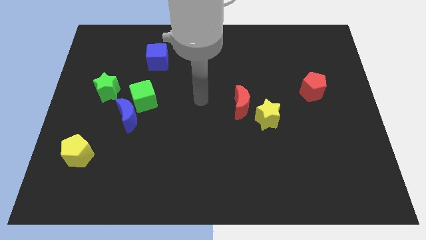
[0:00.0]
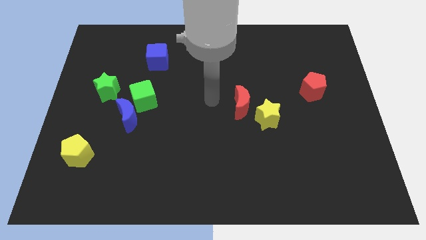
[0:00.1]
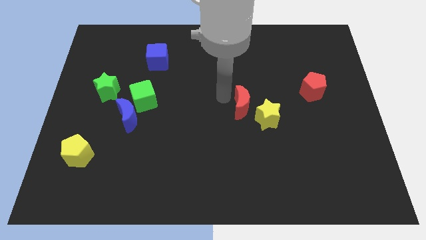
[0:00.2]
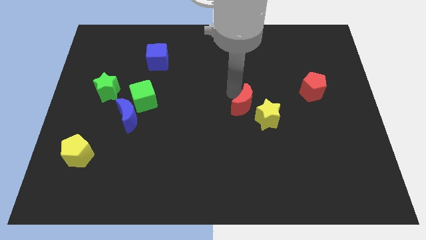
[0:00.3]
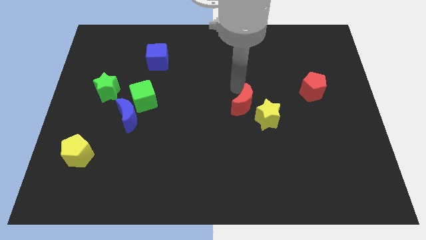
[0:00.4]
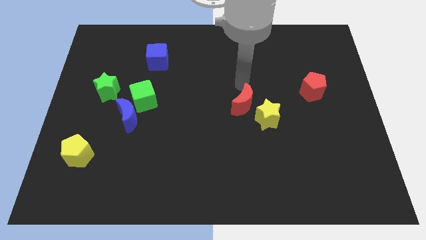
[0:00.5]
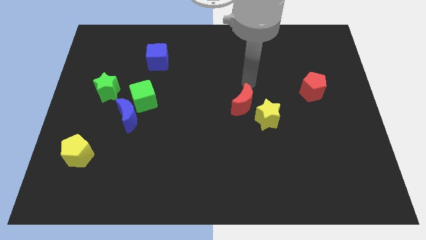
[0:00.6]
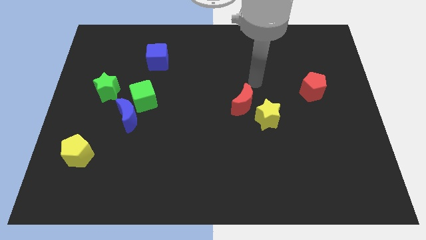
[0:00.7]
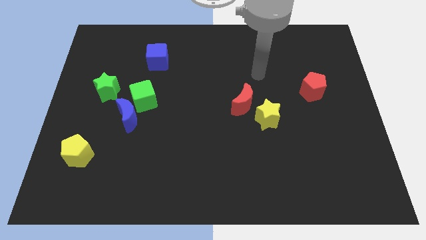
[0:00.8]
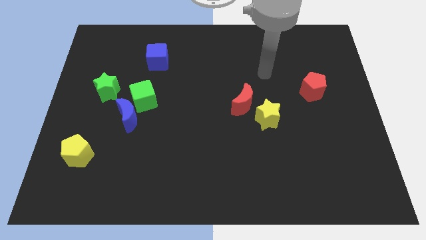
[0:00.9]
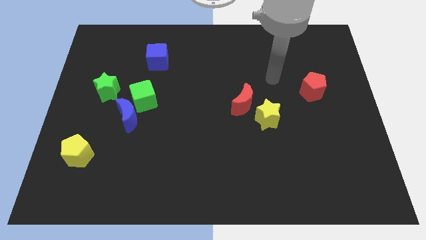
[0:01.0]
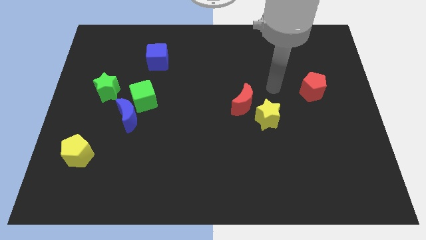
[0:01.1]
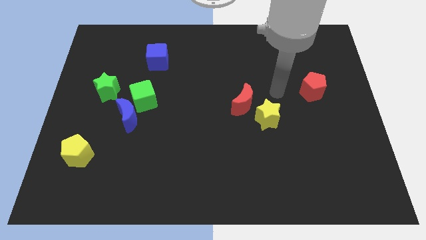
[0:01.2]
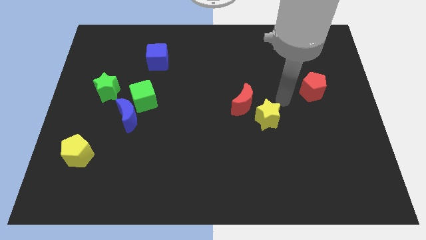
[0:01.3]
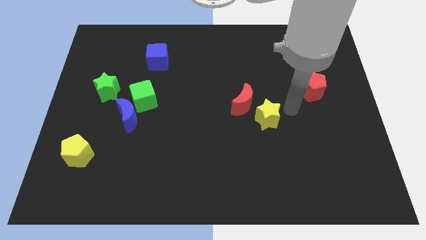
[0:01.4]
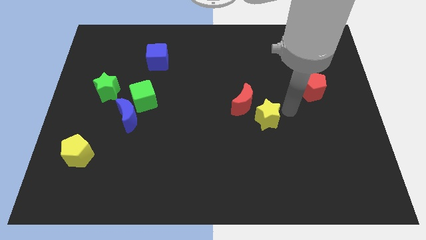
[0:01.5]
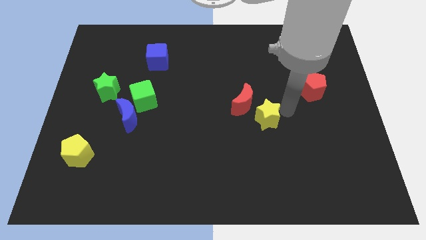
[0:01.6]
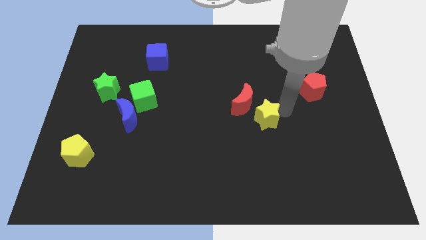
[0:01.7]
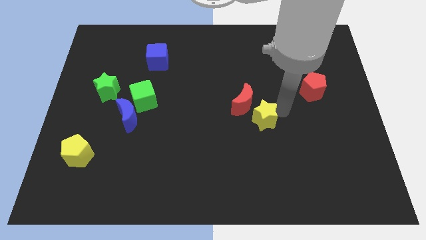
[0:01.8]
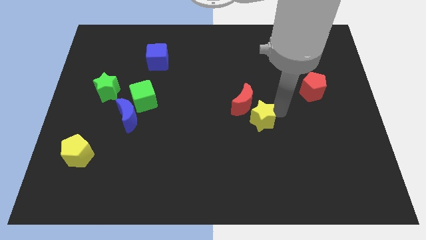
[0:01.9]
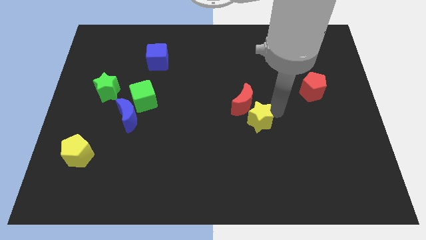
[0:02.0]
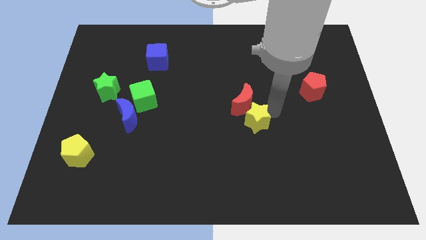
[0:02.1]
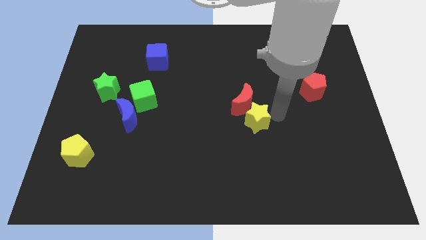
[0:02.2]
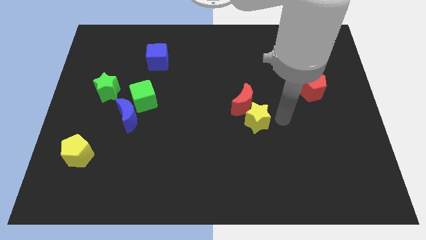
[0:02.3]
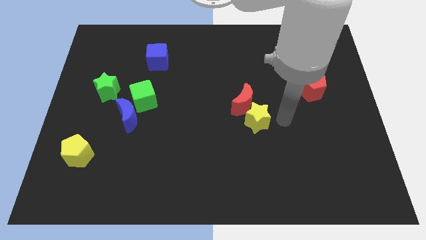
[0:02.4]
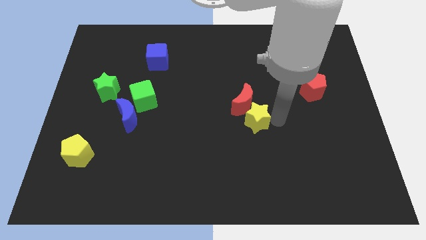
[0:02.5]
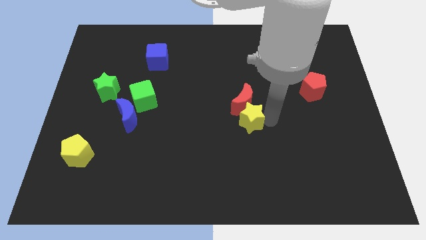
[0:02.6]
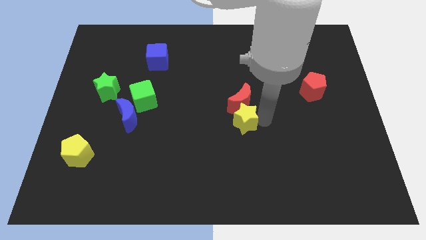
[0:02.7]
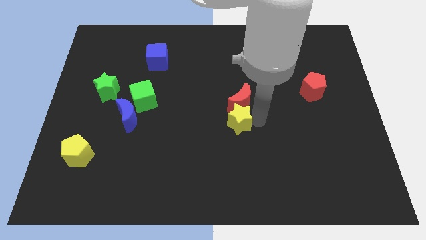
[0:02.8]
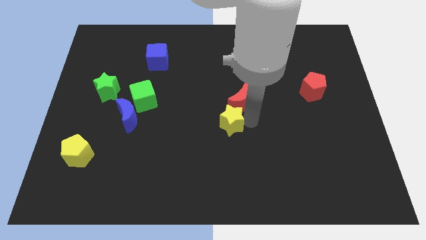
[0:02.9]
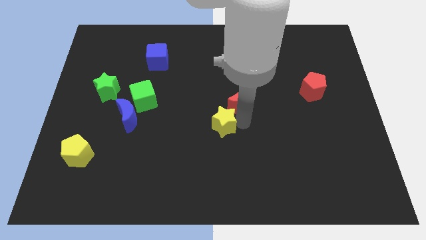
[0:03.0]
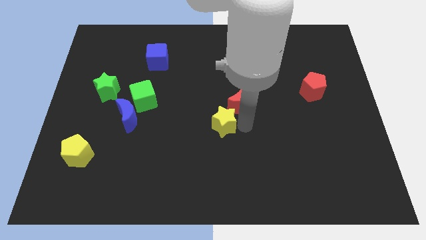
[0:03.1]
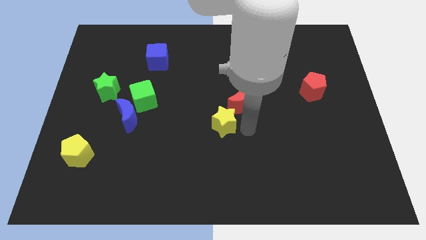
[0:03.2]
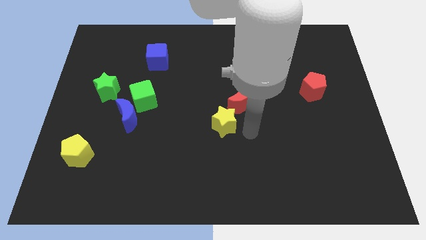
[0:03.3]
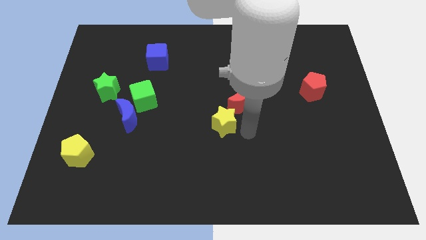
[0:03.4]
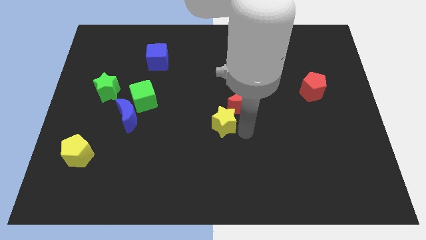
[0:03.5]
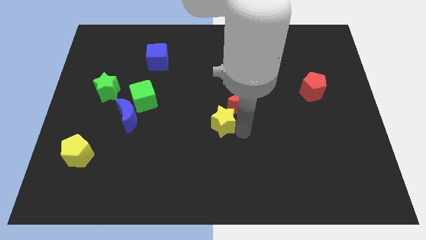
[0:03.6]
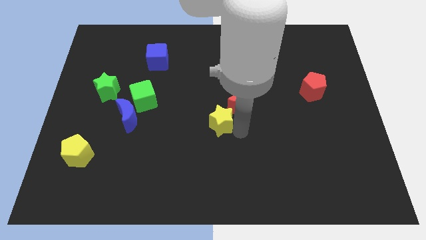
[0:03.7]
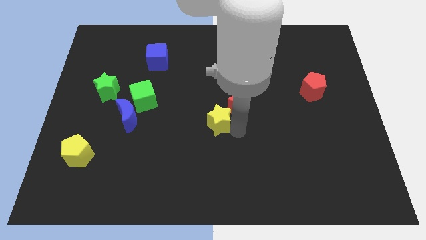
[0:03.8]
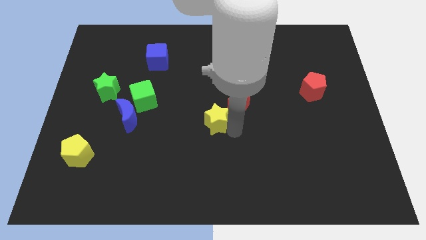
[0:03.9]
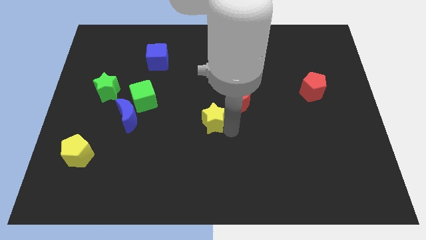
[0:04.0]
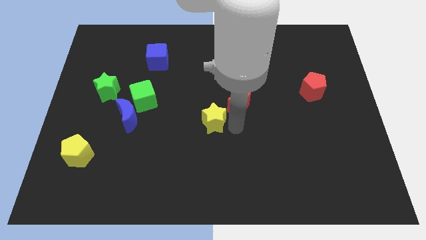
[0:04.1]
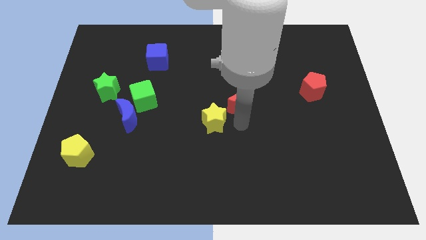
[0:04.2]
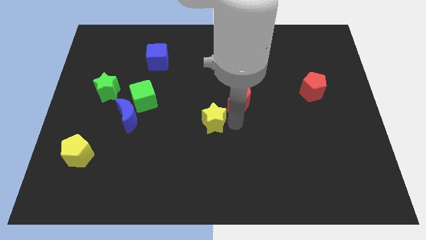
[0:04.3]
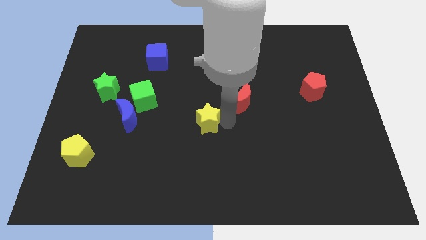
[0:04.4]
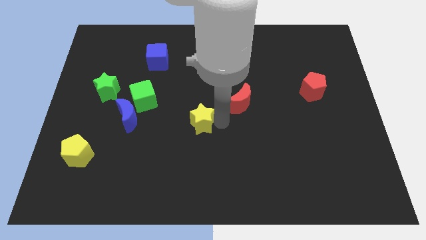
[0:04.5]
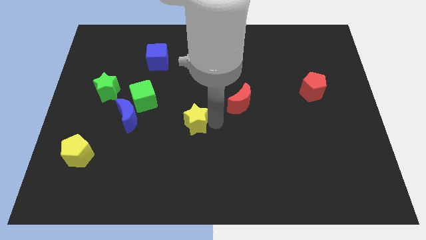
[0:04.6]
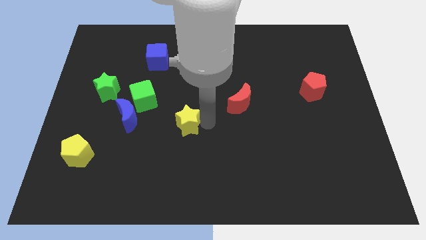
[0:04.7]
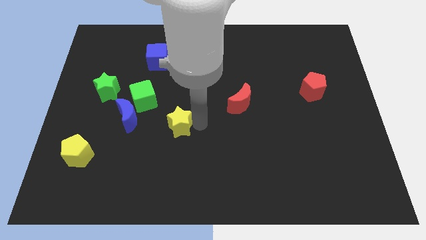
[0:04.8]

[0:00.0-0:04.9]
put the yellow star to the bottom right side of the green cube

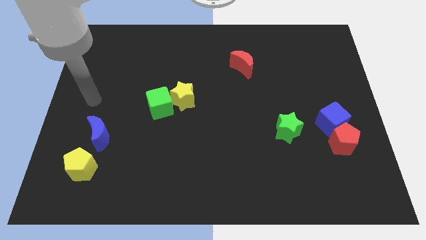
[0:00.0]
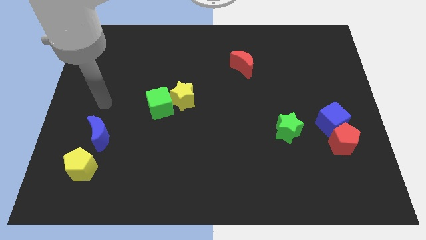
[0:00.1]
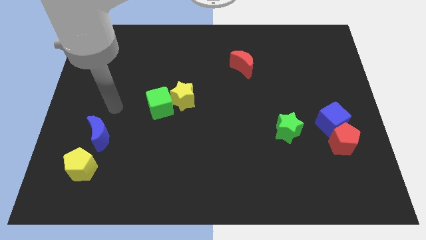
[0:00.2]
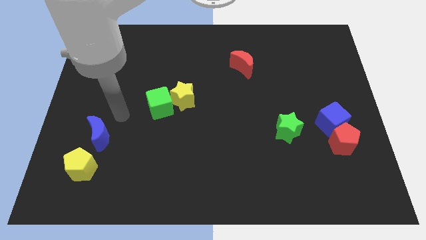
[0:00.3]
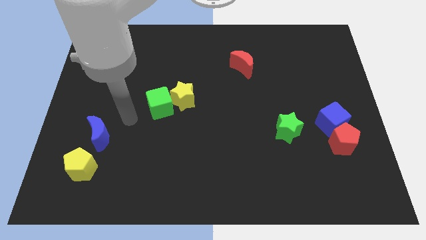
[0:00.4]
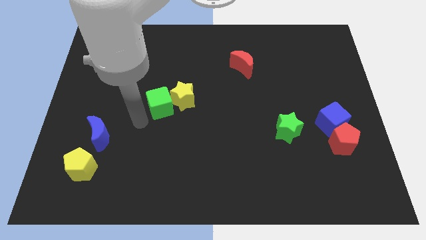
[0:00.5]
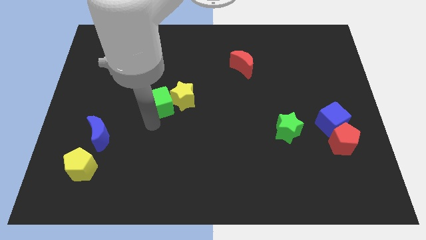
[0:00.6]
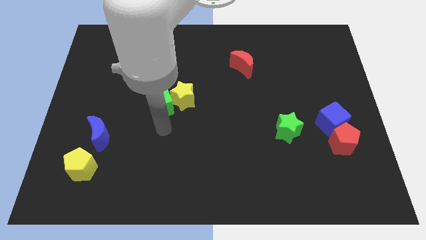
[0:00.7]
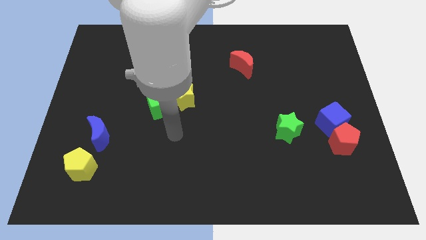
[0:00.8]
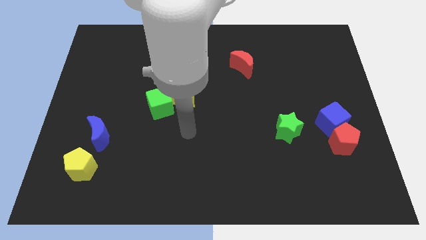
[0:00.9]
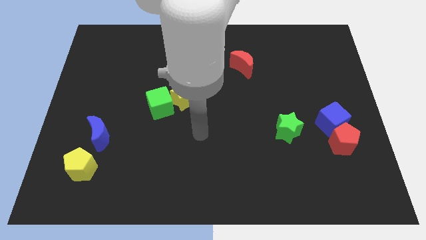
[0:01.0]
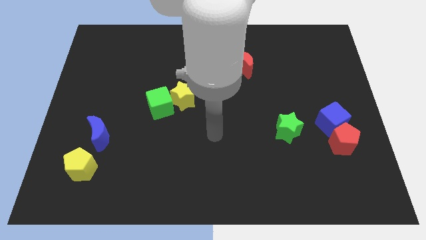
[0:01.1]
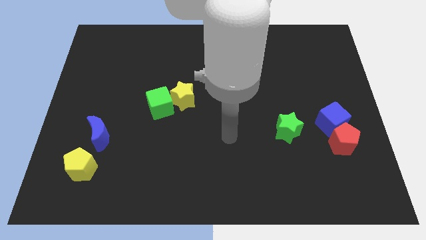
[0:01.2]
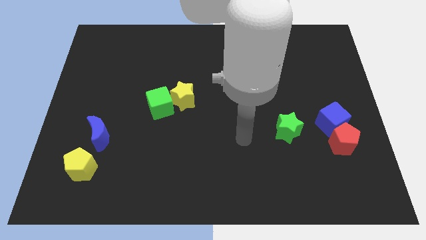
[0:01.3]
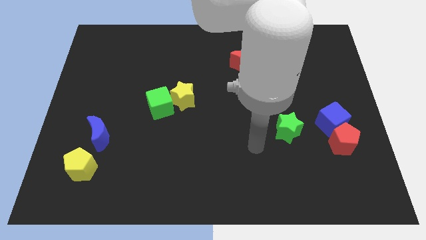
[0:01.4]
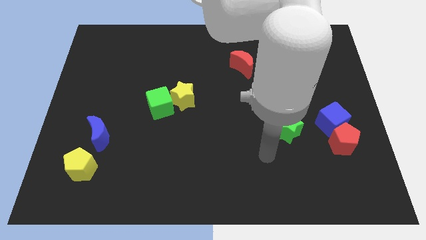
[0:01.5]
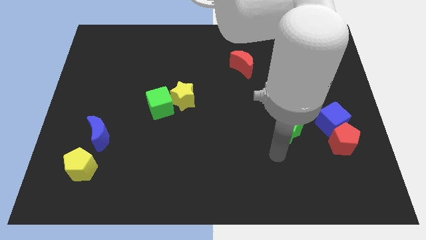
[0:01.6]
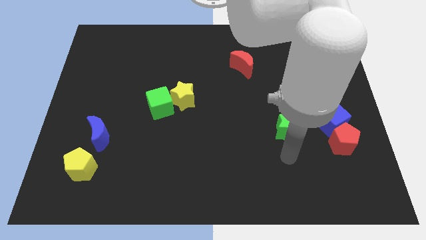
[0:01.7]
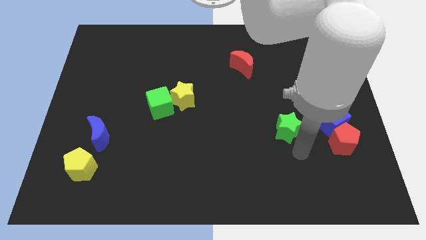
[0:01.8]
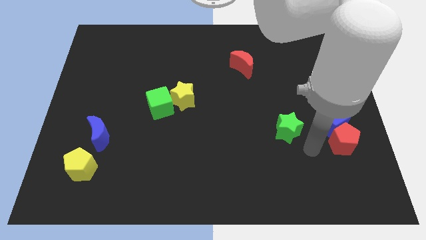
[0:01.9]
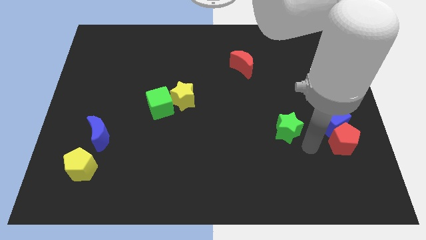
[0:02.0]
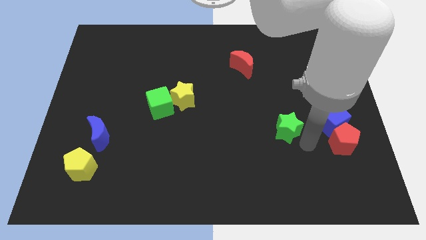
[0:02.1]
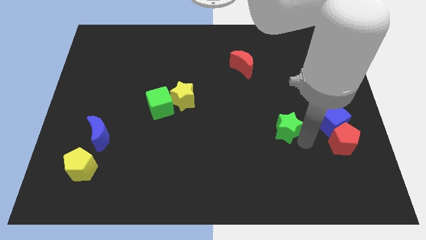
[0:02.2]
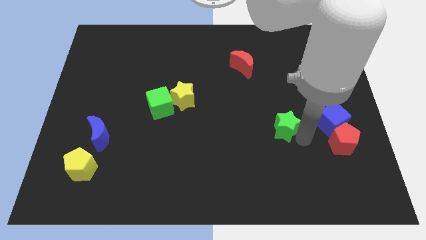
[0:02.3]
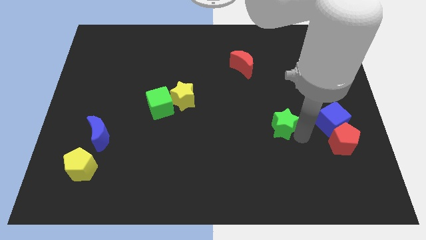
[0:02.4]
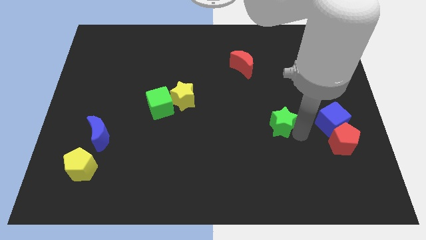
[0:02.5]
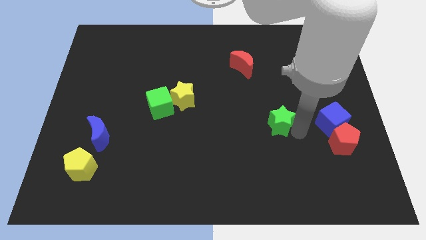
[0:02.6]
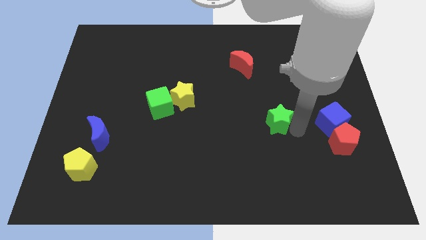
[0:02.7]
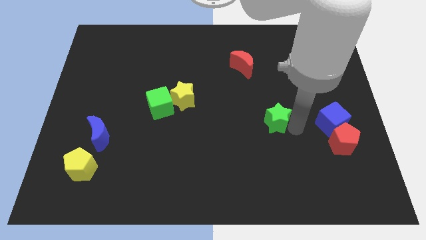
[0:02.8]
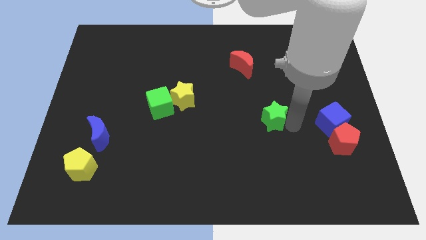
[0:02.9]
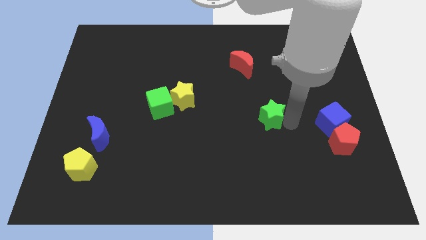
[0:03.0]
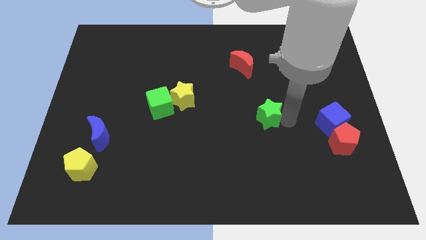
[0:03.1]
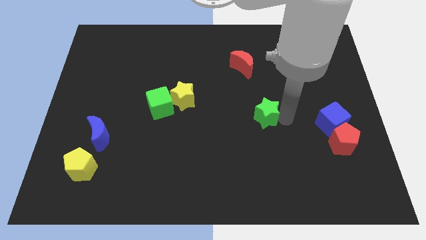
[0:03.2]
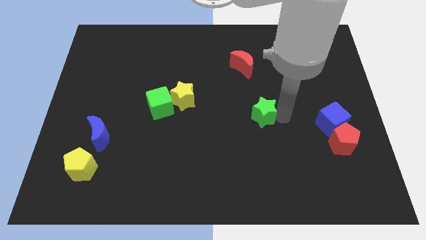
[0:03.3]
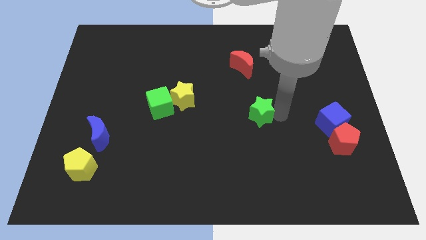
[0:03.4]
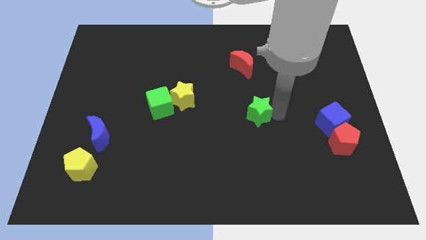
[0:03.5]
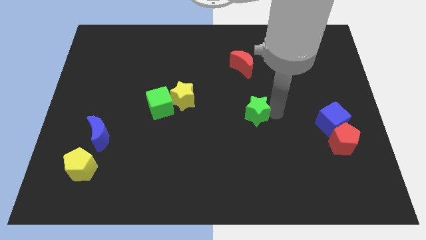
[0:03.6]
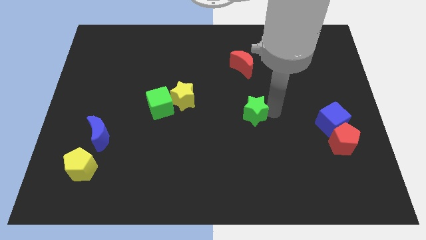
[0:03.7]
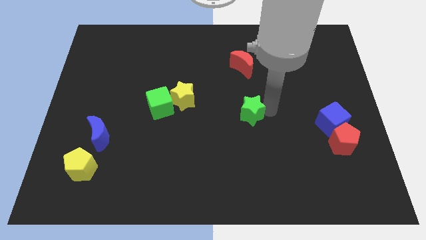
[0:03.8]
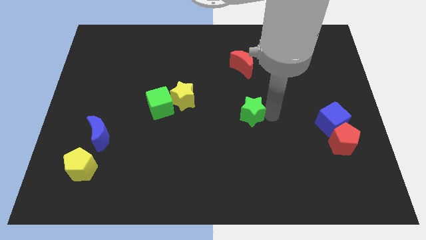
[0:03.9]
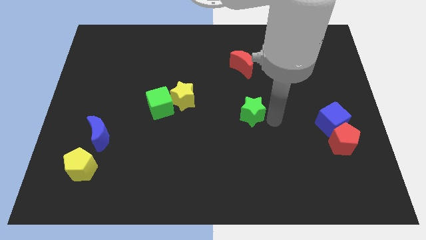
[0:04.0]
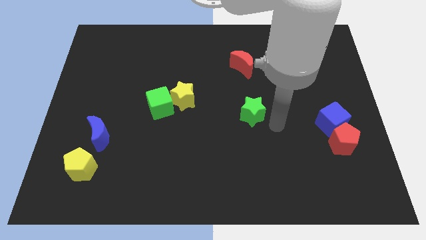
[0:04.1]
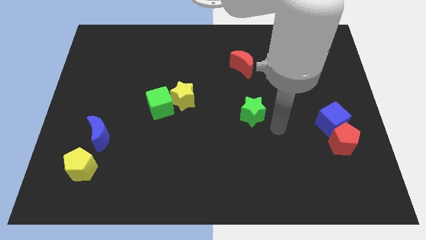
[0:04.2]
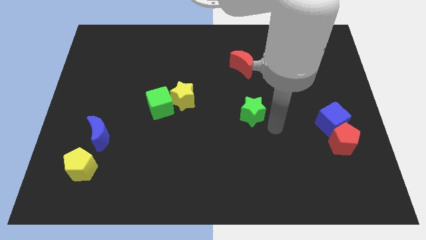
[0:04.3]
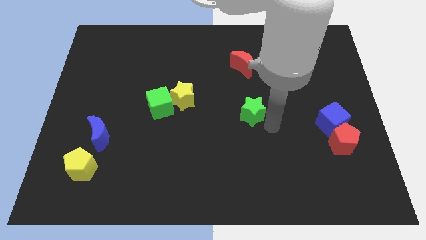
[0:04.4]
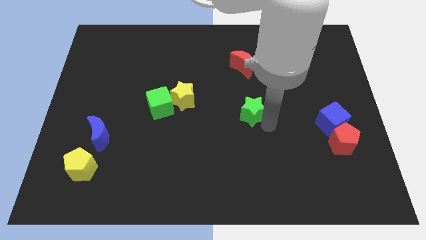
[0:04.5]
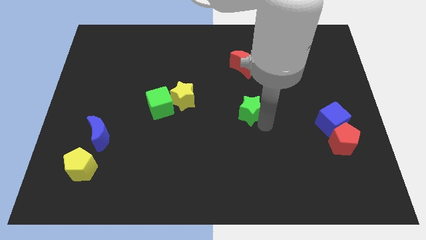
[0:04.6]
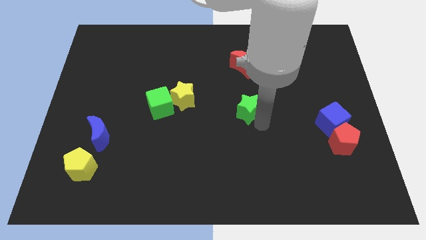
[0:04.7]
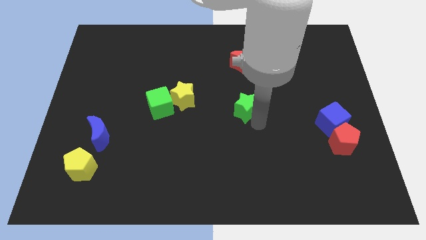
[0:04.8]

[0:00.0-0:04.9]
move the green star right of the yellow star
